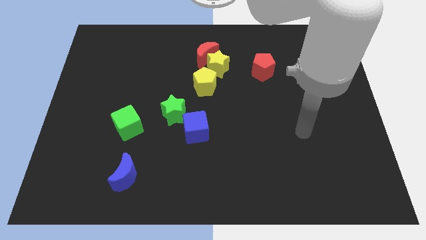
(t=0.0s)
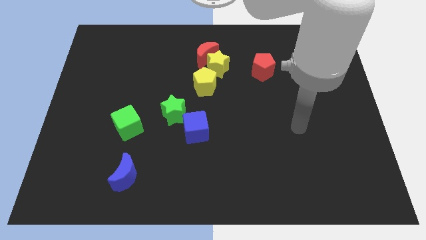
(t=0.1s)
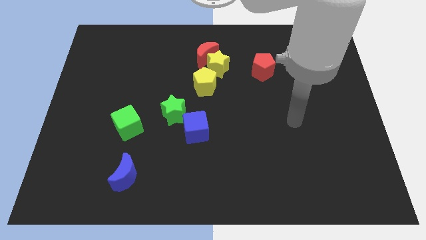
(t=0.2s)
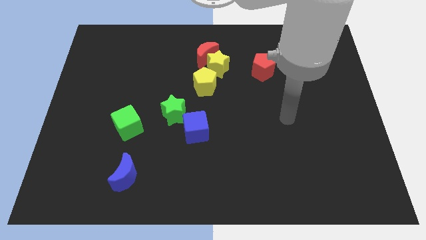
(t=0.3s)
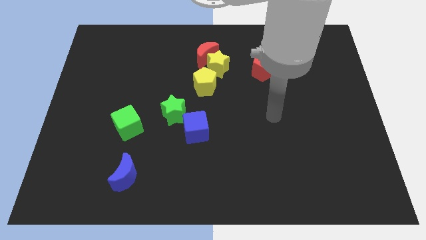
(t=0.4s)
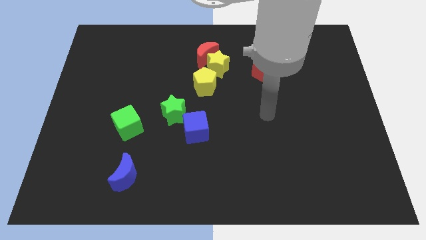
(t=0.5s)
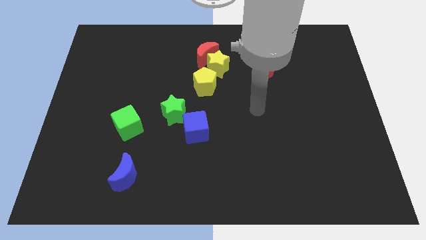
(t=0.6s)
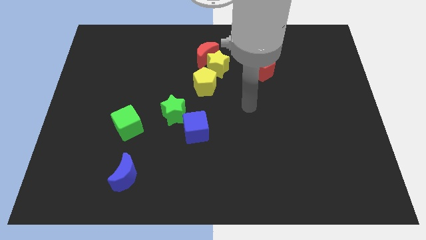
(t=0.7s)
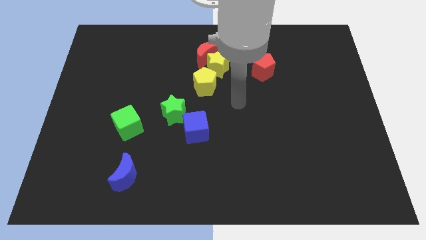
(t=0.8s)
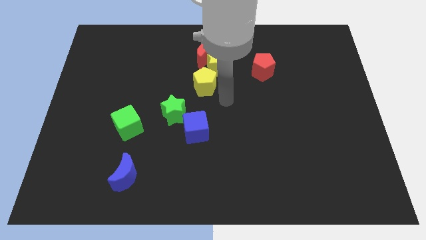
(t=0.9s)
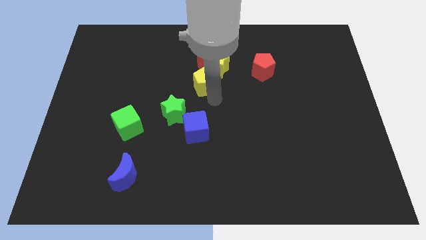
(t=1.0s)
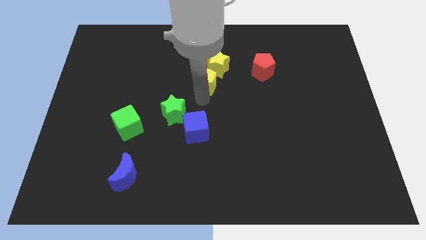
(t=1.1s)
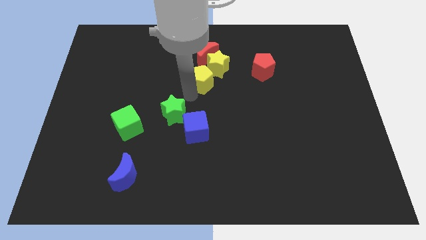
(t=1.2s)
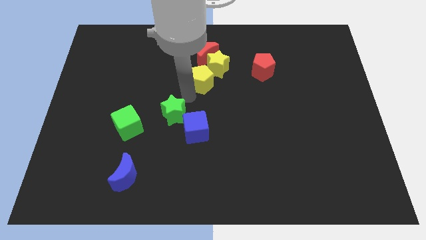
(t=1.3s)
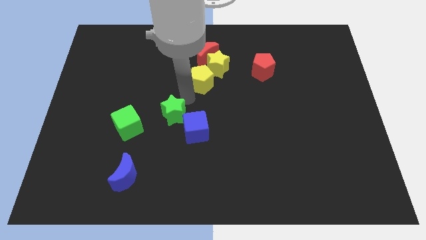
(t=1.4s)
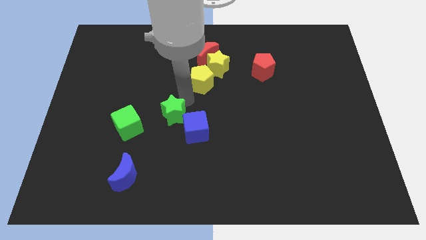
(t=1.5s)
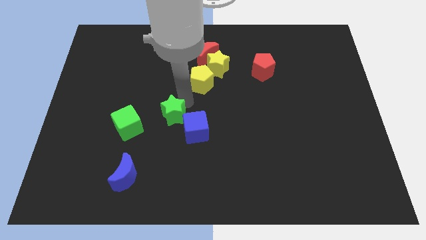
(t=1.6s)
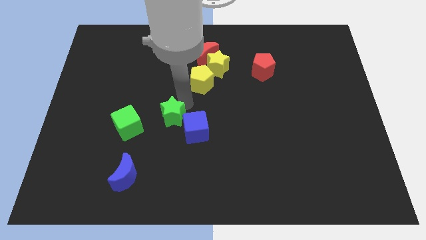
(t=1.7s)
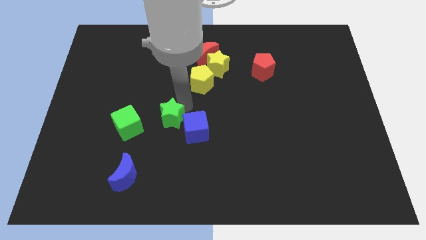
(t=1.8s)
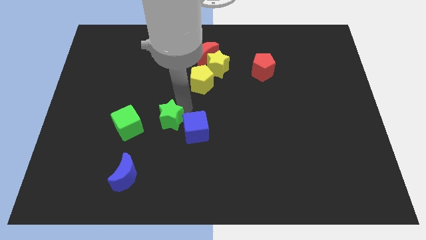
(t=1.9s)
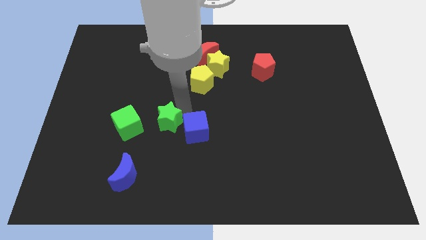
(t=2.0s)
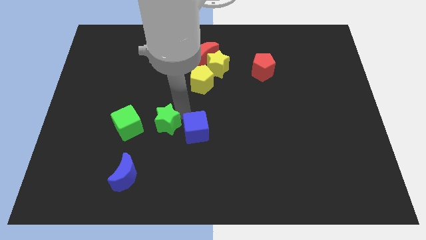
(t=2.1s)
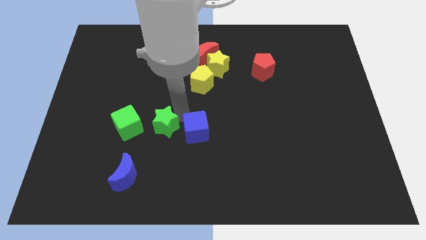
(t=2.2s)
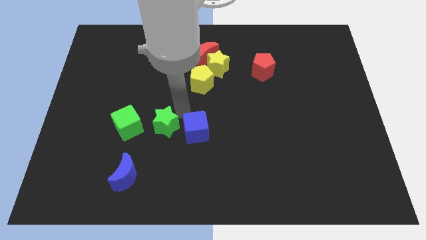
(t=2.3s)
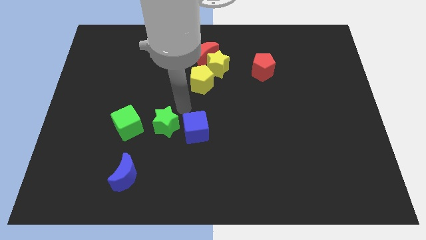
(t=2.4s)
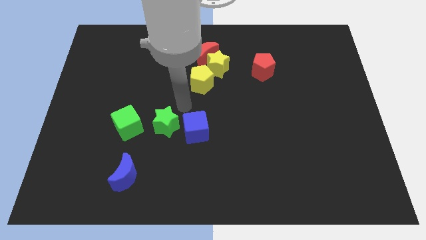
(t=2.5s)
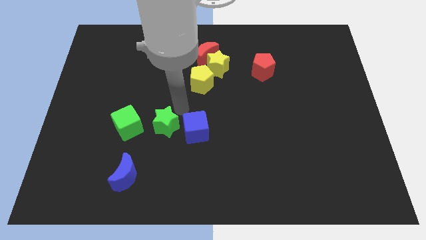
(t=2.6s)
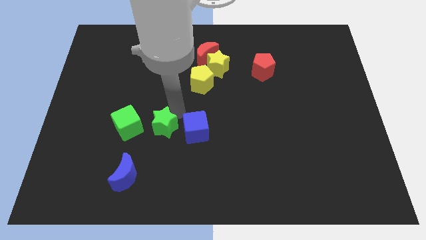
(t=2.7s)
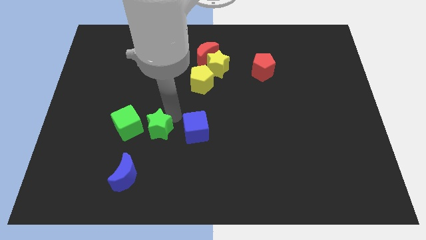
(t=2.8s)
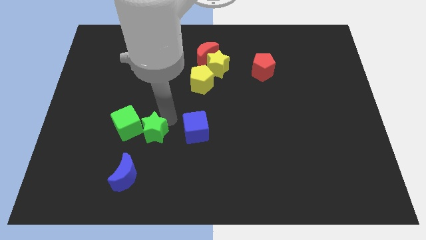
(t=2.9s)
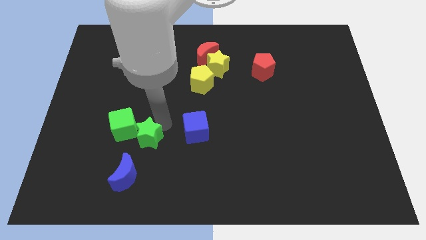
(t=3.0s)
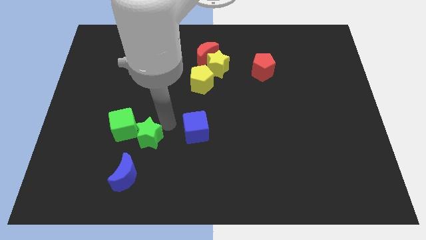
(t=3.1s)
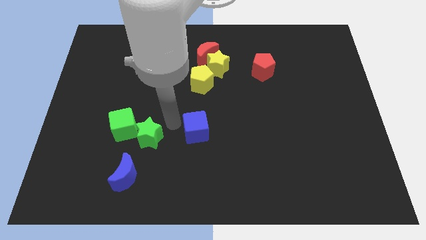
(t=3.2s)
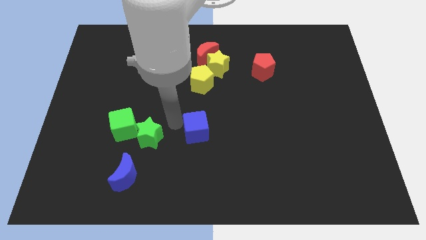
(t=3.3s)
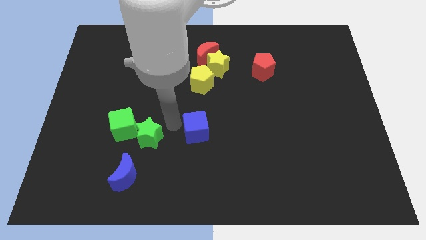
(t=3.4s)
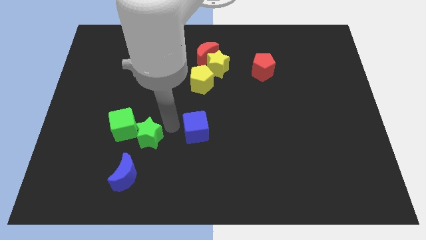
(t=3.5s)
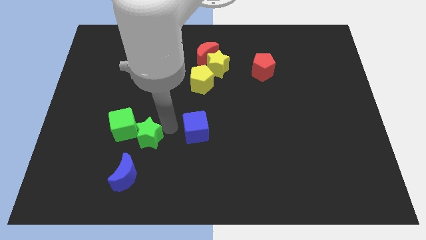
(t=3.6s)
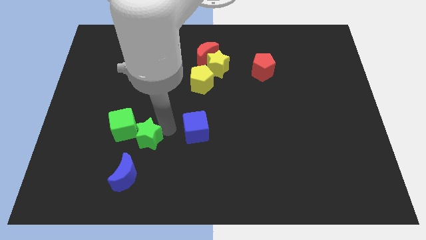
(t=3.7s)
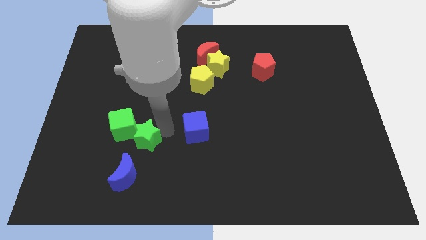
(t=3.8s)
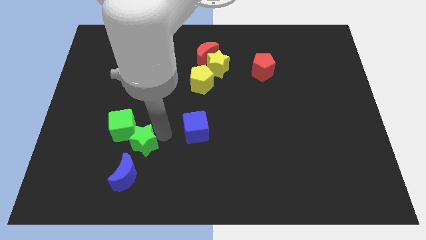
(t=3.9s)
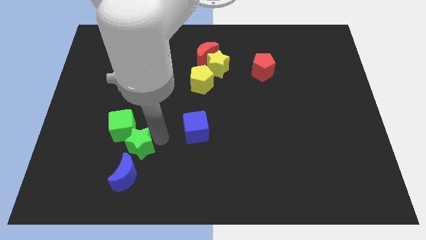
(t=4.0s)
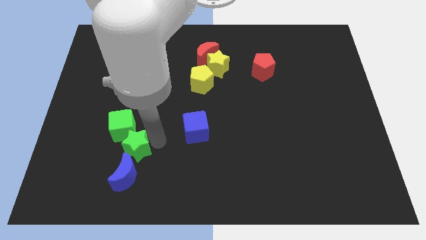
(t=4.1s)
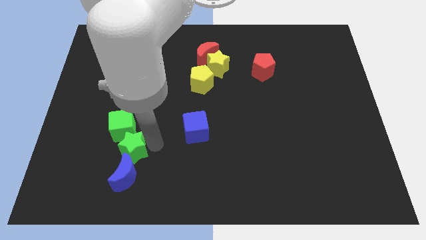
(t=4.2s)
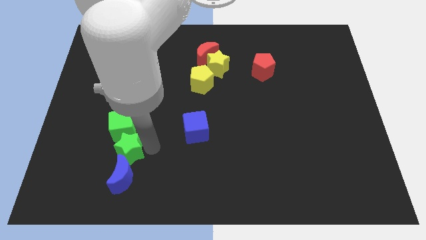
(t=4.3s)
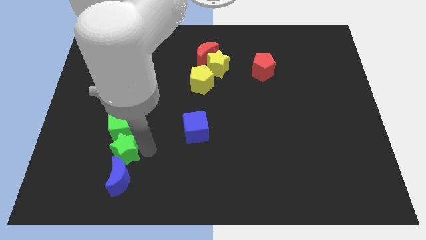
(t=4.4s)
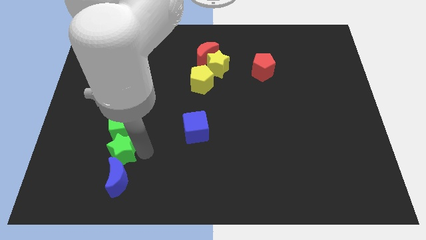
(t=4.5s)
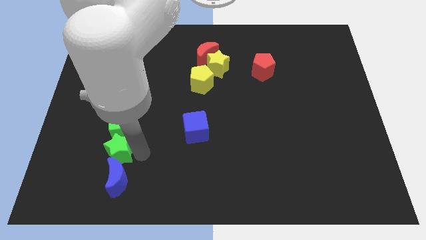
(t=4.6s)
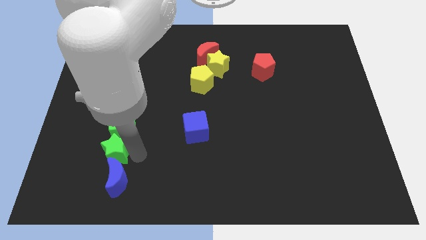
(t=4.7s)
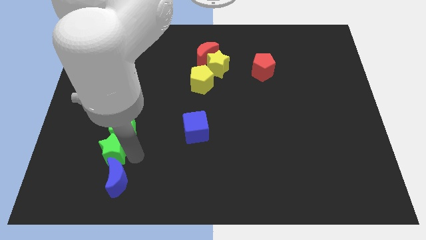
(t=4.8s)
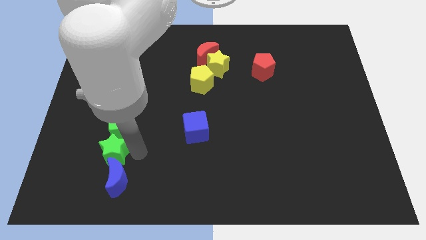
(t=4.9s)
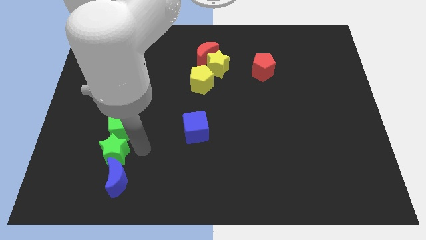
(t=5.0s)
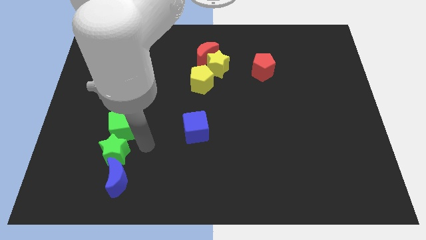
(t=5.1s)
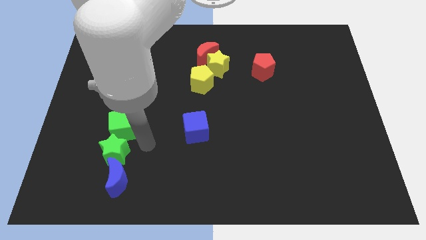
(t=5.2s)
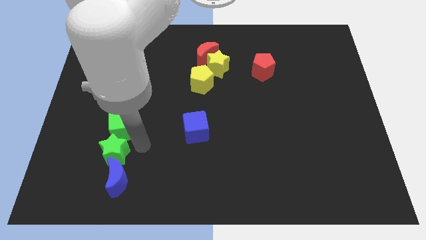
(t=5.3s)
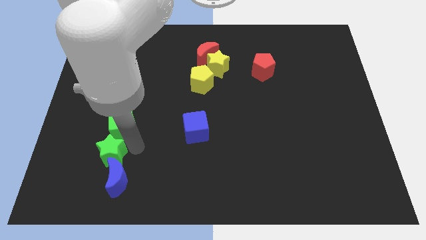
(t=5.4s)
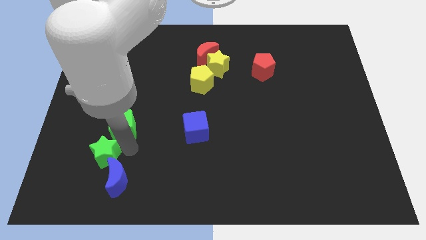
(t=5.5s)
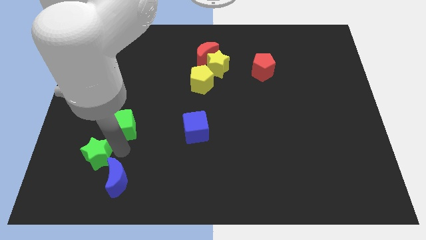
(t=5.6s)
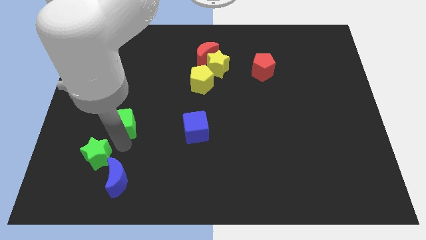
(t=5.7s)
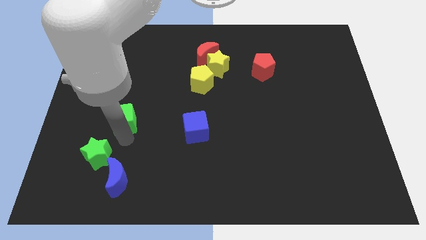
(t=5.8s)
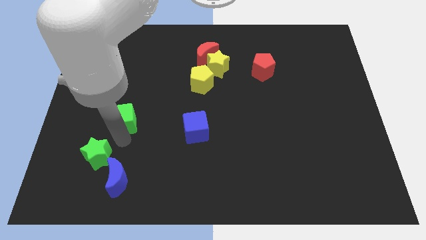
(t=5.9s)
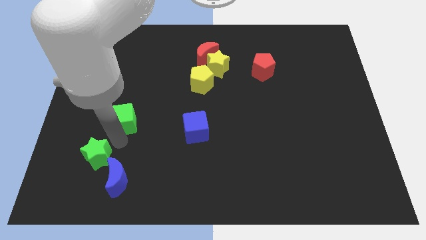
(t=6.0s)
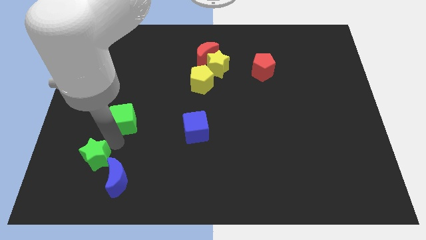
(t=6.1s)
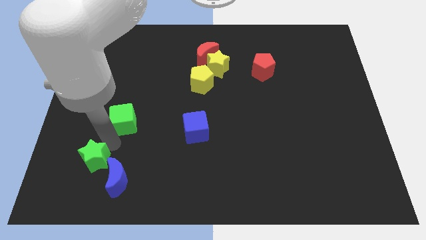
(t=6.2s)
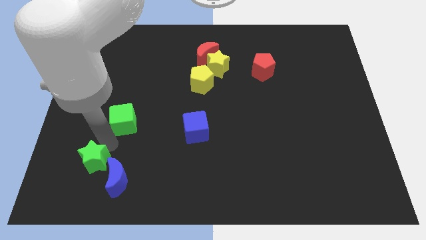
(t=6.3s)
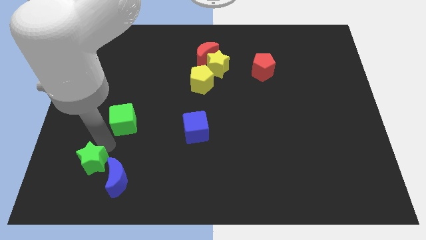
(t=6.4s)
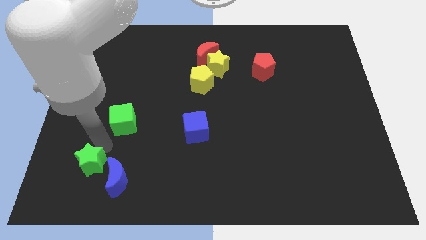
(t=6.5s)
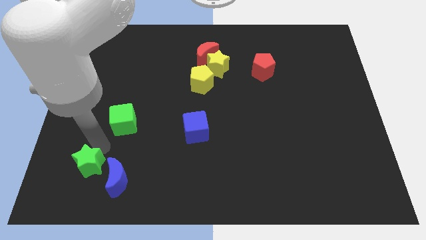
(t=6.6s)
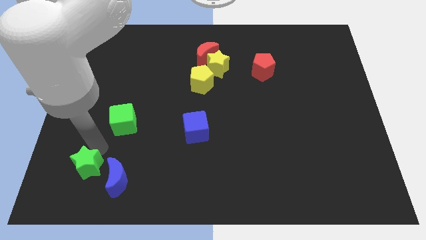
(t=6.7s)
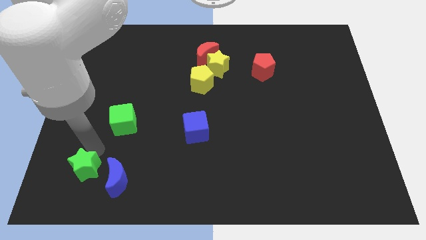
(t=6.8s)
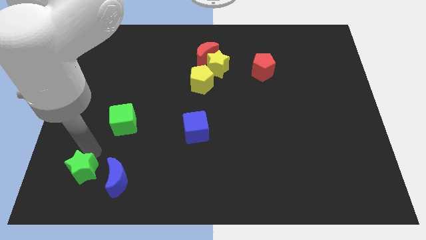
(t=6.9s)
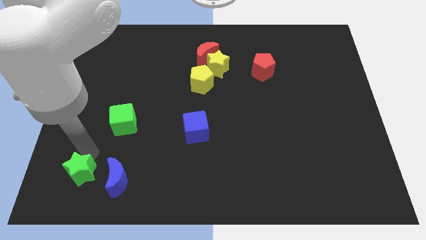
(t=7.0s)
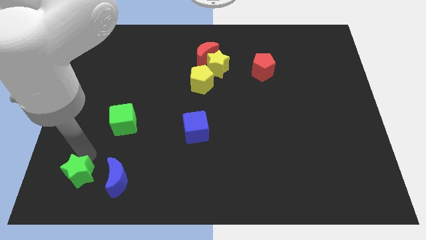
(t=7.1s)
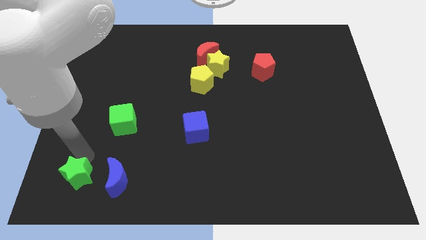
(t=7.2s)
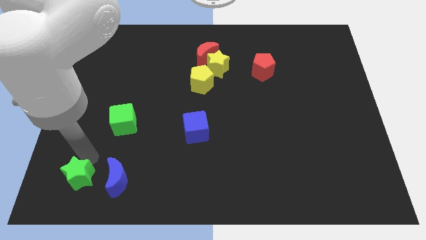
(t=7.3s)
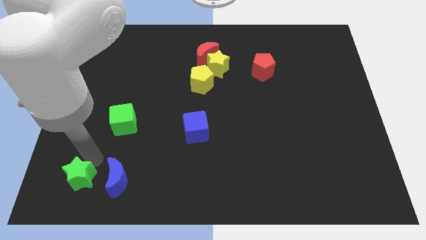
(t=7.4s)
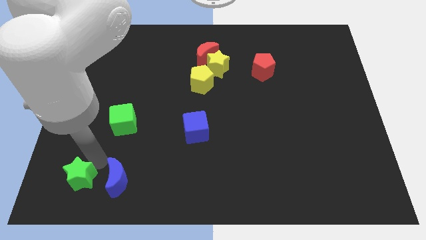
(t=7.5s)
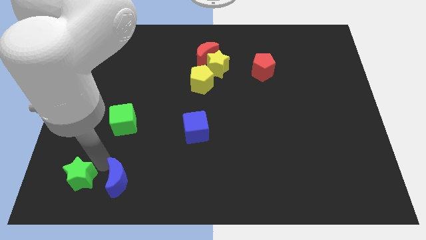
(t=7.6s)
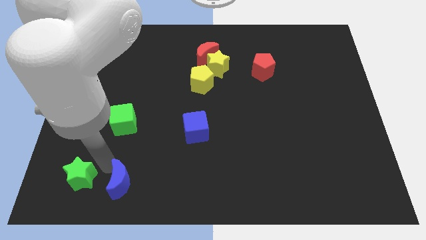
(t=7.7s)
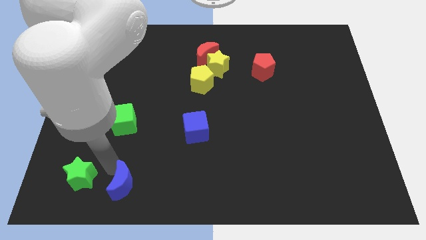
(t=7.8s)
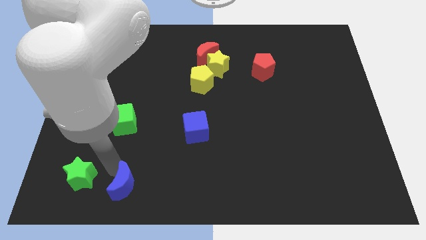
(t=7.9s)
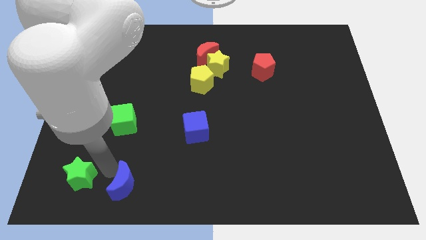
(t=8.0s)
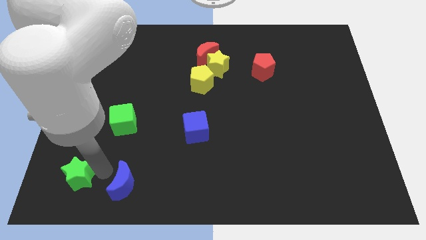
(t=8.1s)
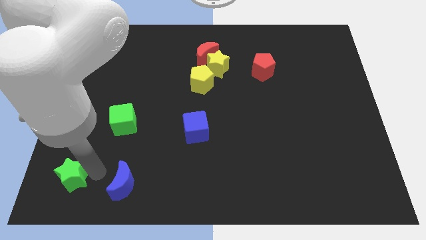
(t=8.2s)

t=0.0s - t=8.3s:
put the green star to the bottom left of the board
